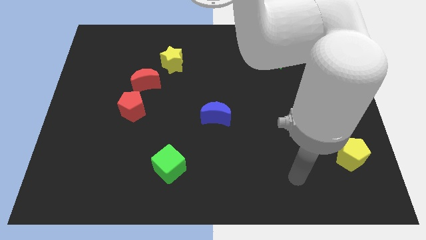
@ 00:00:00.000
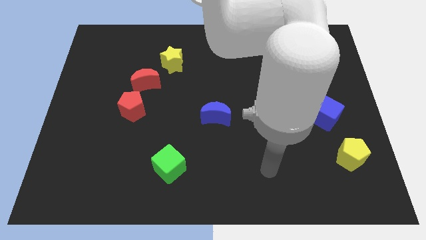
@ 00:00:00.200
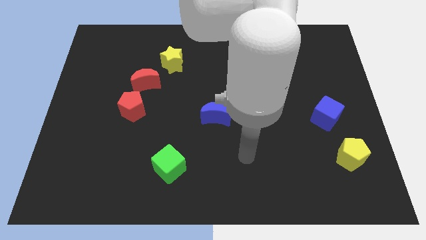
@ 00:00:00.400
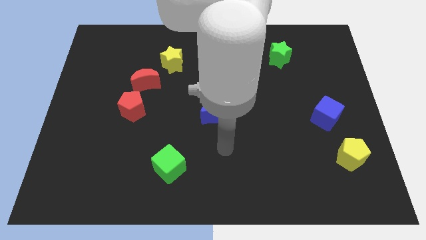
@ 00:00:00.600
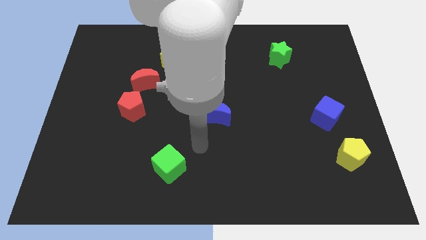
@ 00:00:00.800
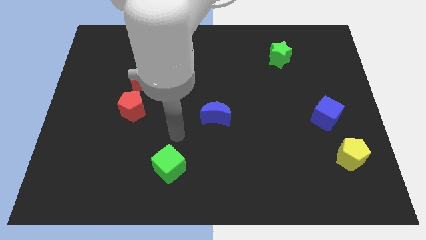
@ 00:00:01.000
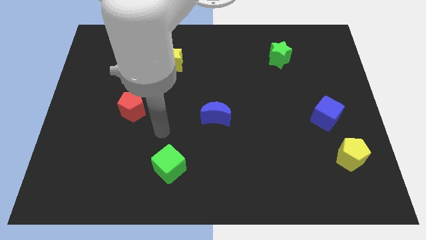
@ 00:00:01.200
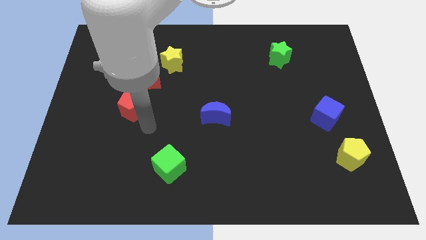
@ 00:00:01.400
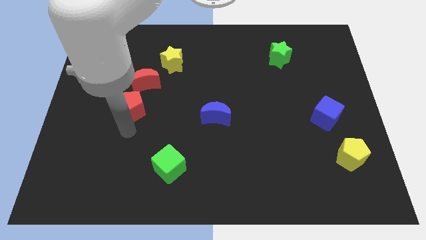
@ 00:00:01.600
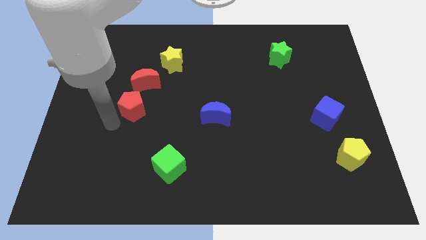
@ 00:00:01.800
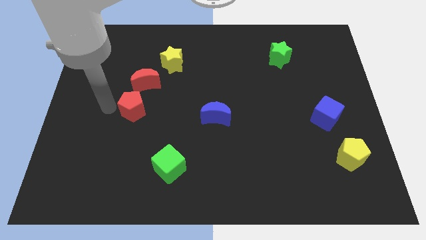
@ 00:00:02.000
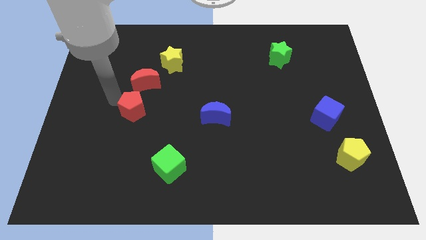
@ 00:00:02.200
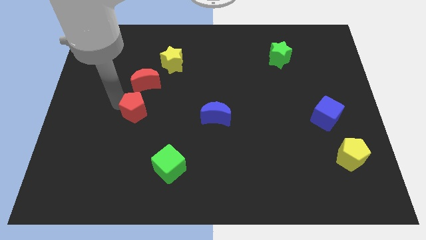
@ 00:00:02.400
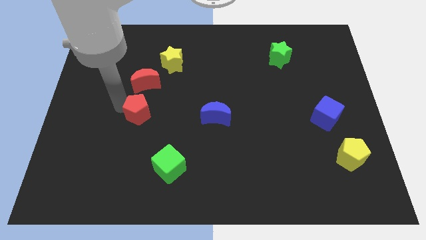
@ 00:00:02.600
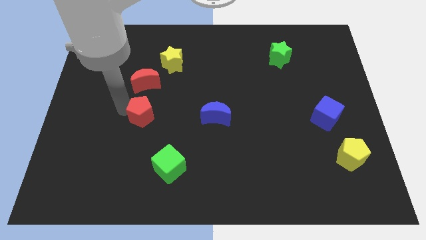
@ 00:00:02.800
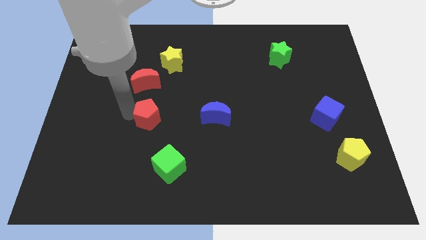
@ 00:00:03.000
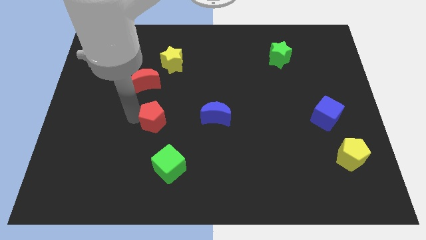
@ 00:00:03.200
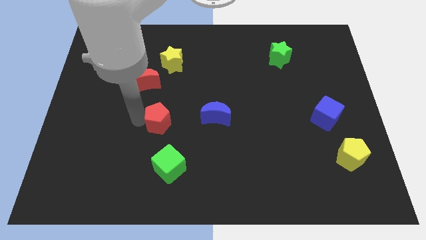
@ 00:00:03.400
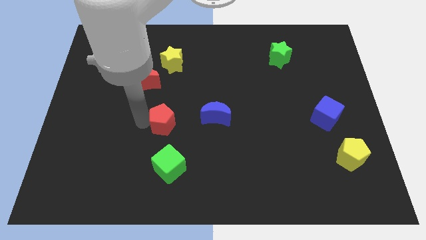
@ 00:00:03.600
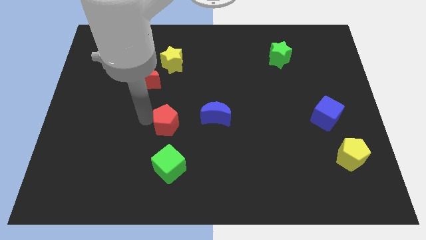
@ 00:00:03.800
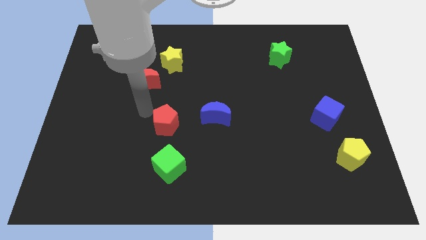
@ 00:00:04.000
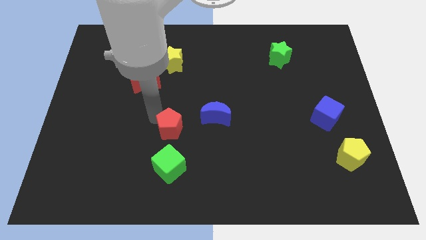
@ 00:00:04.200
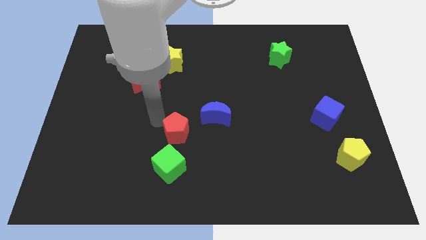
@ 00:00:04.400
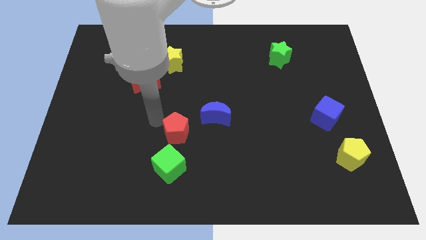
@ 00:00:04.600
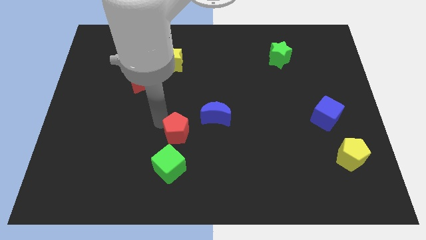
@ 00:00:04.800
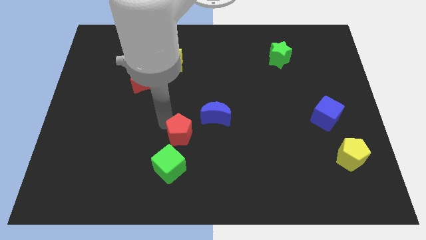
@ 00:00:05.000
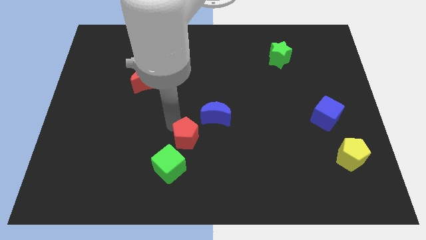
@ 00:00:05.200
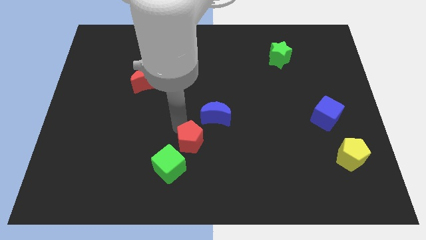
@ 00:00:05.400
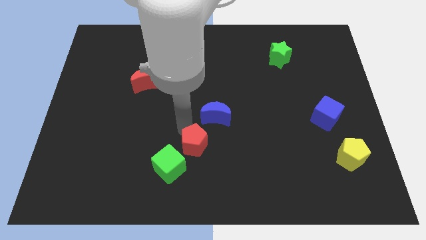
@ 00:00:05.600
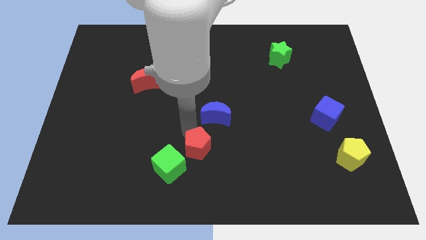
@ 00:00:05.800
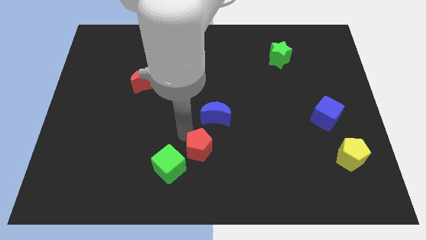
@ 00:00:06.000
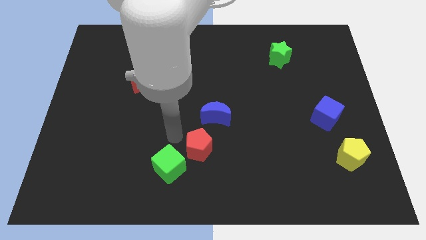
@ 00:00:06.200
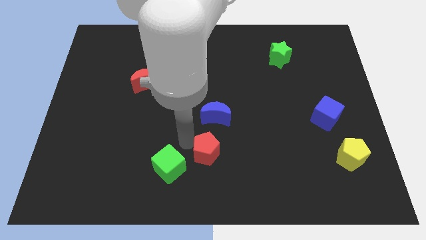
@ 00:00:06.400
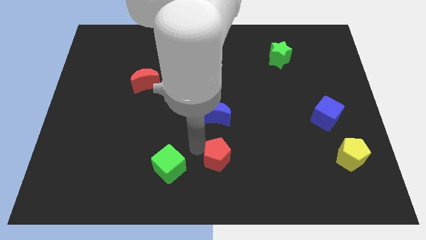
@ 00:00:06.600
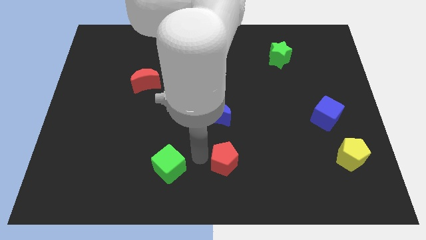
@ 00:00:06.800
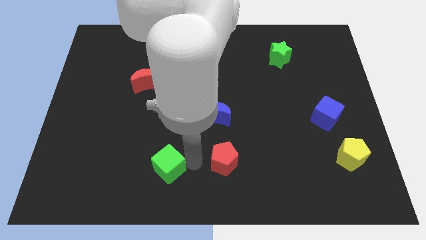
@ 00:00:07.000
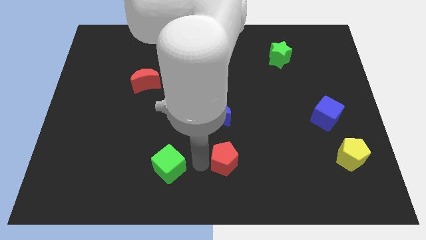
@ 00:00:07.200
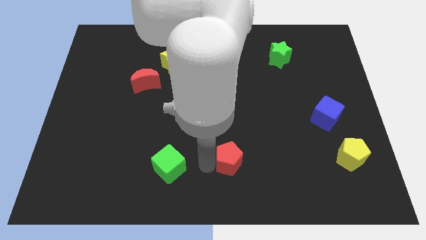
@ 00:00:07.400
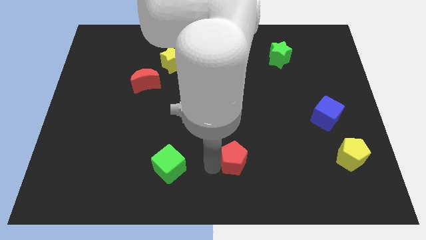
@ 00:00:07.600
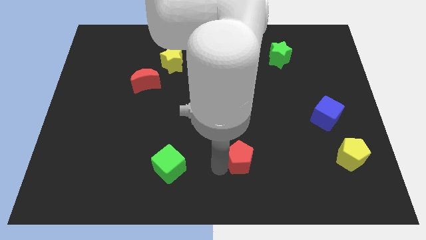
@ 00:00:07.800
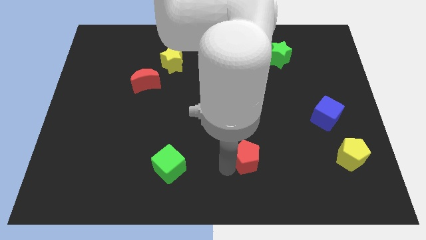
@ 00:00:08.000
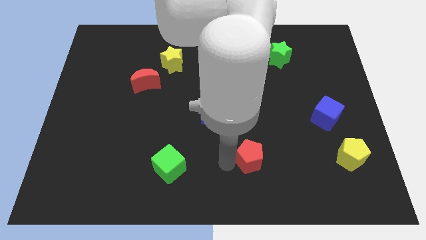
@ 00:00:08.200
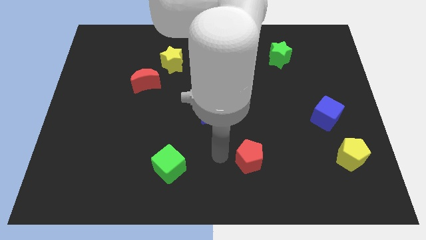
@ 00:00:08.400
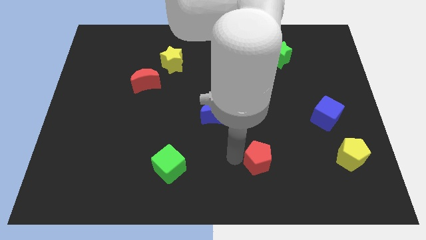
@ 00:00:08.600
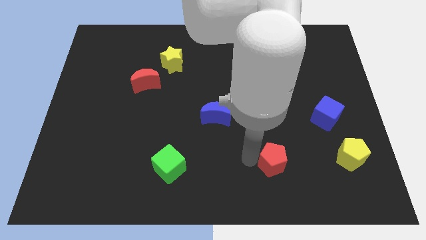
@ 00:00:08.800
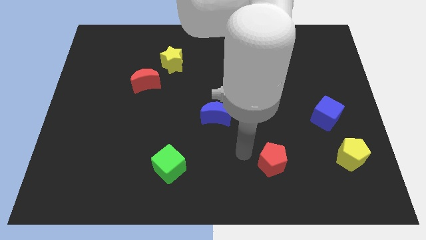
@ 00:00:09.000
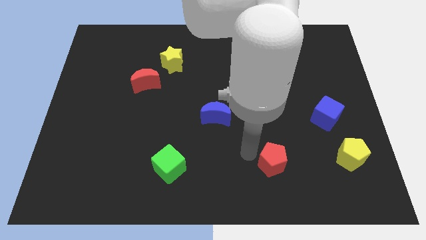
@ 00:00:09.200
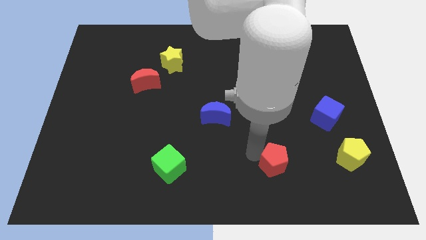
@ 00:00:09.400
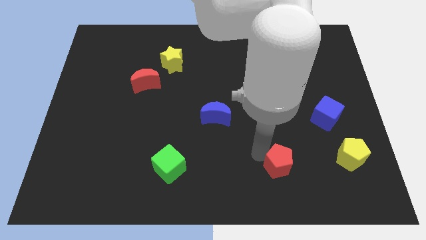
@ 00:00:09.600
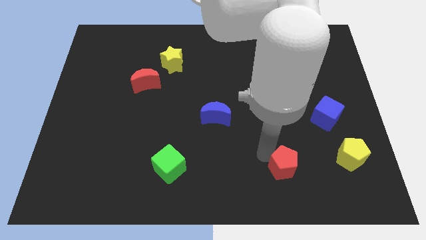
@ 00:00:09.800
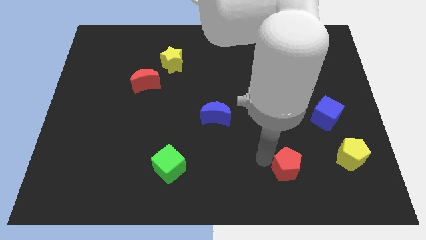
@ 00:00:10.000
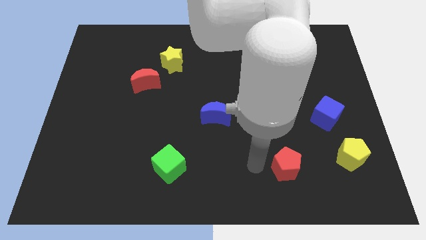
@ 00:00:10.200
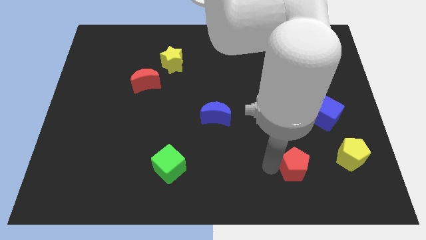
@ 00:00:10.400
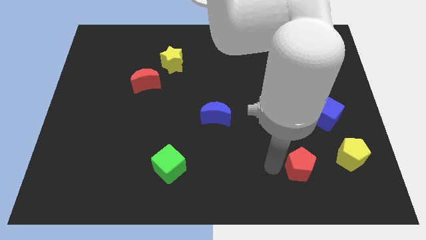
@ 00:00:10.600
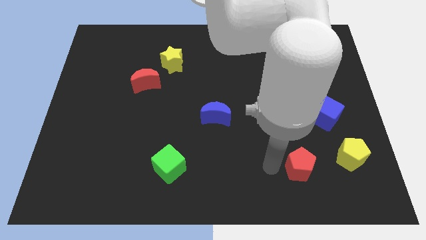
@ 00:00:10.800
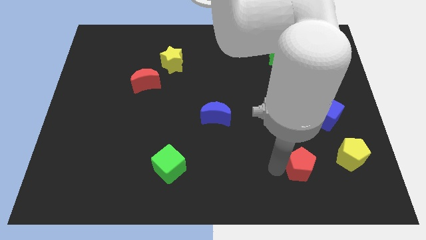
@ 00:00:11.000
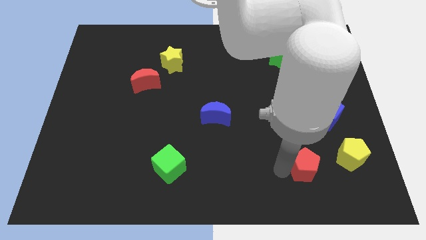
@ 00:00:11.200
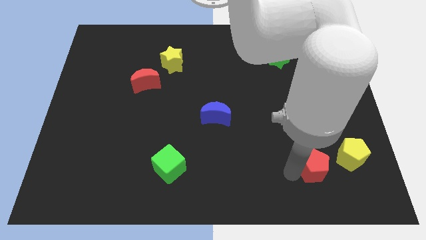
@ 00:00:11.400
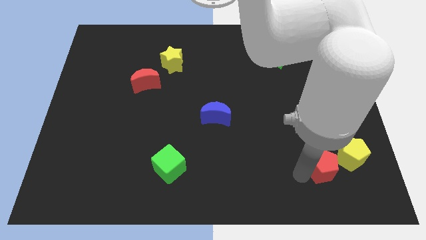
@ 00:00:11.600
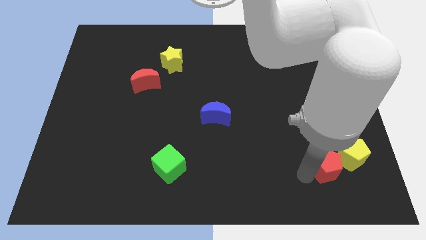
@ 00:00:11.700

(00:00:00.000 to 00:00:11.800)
move the red pentagon close to the yellow pentagon

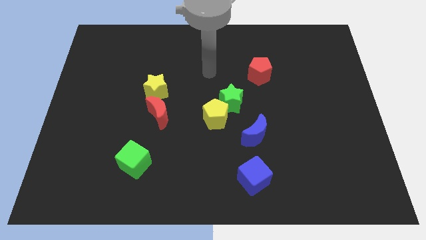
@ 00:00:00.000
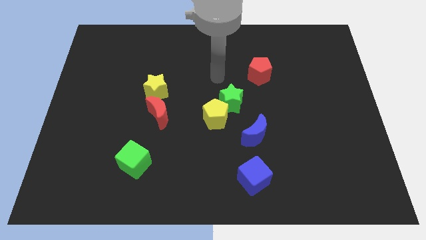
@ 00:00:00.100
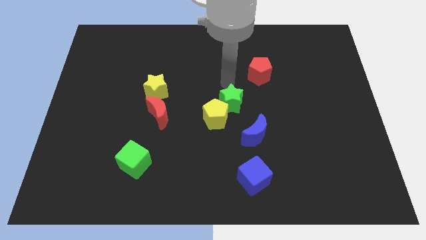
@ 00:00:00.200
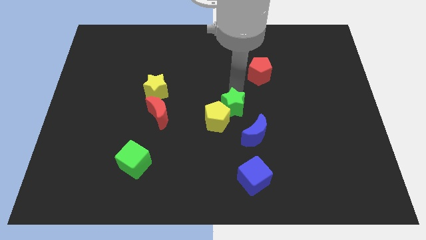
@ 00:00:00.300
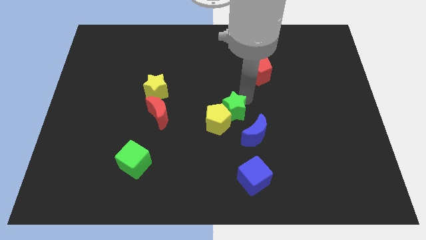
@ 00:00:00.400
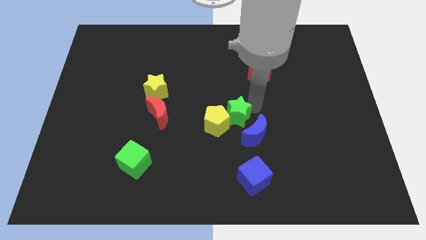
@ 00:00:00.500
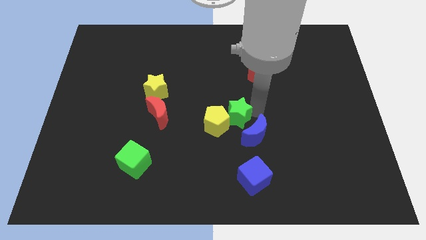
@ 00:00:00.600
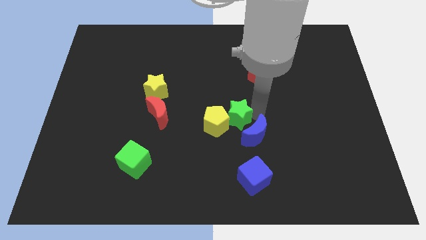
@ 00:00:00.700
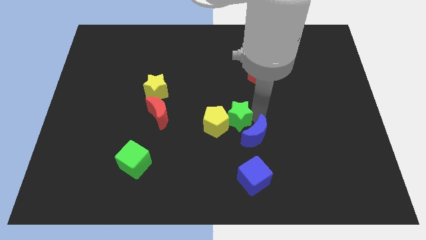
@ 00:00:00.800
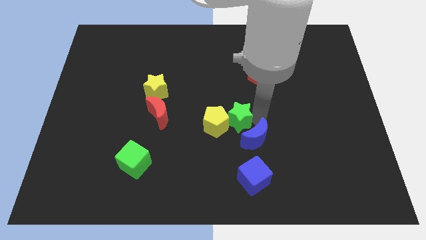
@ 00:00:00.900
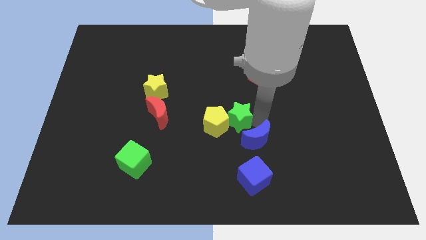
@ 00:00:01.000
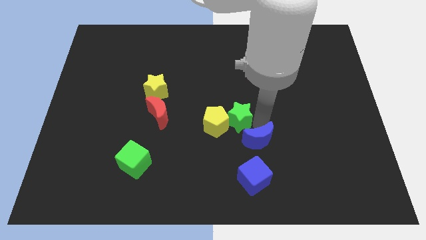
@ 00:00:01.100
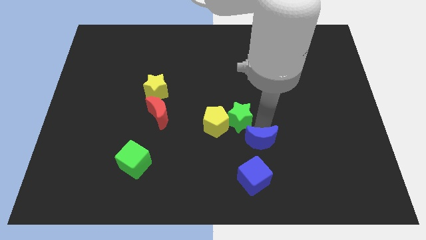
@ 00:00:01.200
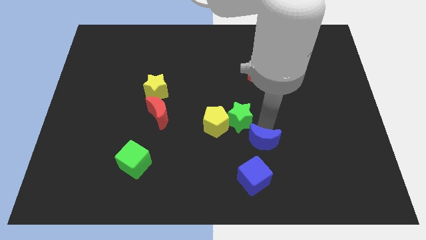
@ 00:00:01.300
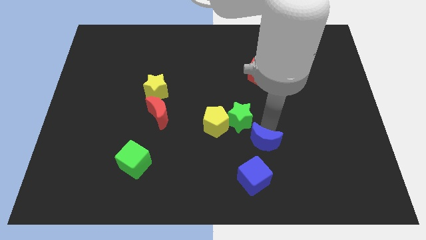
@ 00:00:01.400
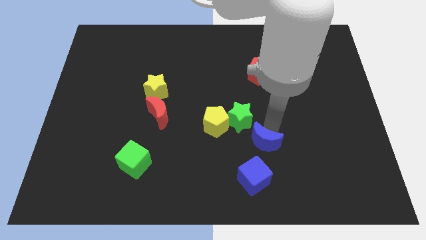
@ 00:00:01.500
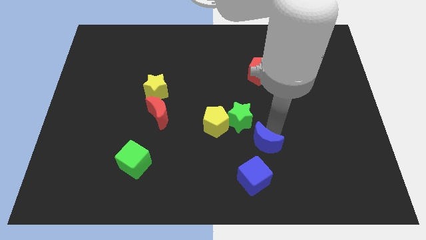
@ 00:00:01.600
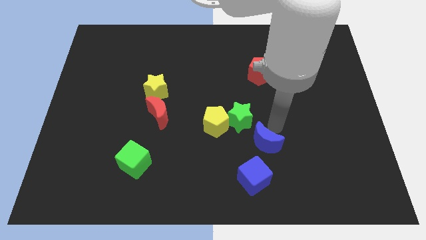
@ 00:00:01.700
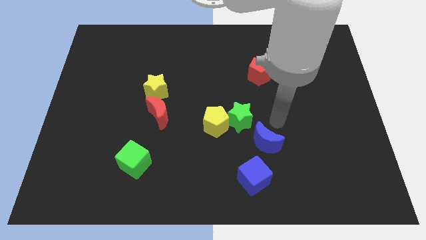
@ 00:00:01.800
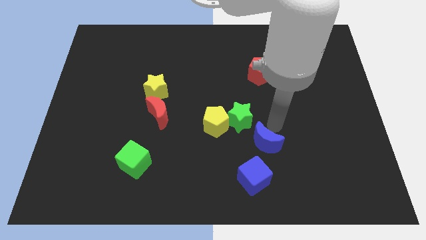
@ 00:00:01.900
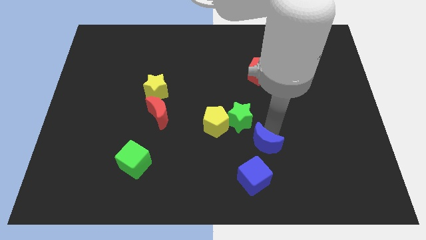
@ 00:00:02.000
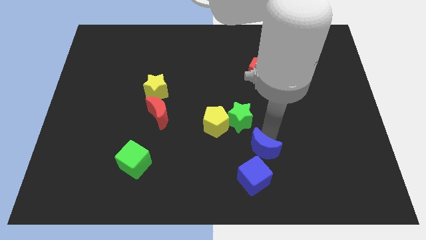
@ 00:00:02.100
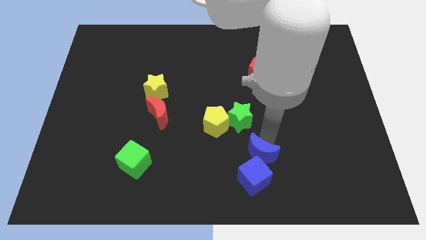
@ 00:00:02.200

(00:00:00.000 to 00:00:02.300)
push the blue moon next to the blue cube
